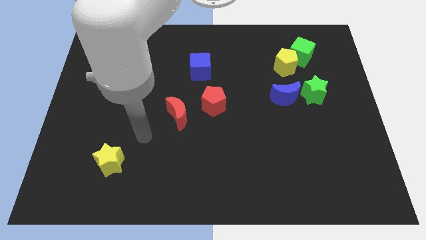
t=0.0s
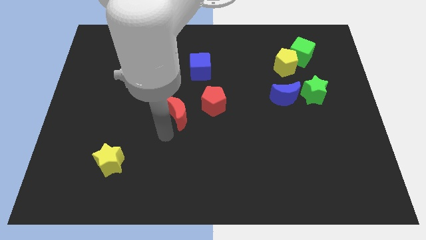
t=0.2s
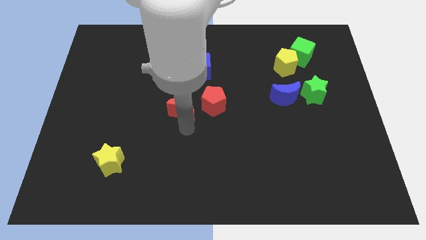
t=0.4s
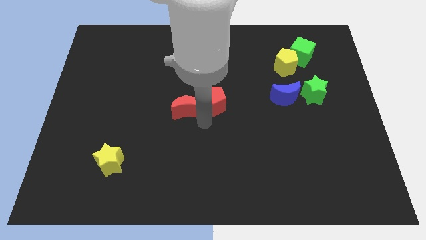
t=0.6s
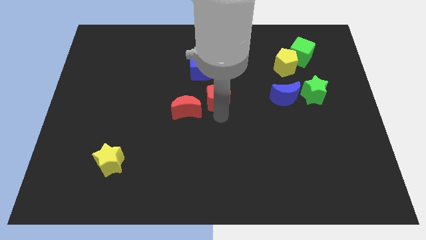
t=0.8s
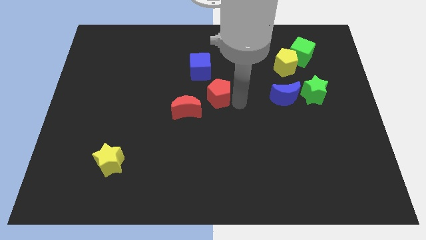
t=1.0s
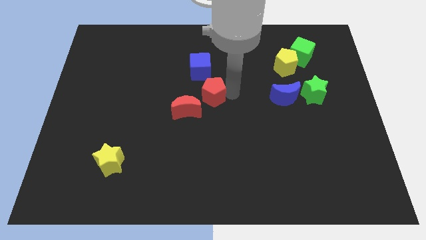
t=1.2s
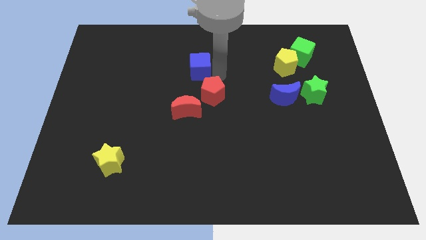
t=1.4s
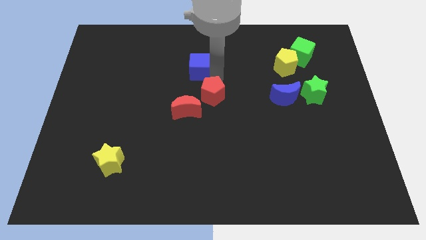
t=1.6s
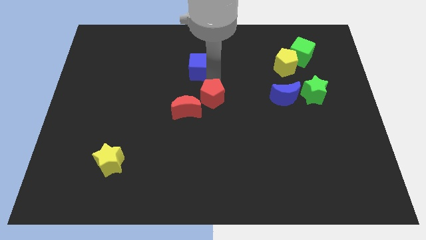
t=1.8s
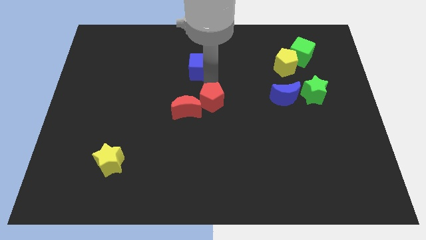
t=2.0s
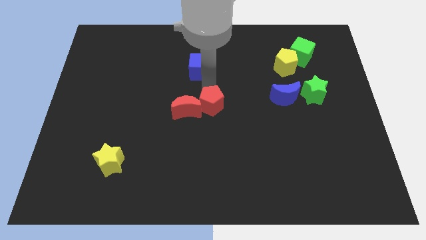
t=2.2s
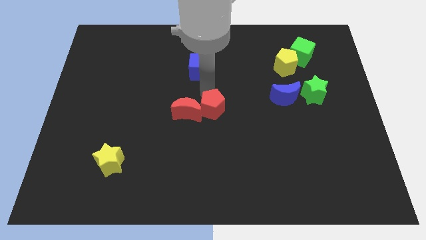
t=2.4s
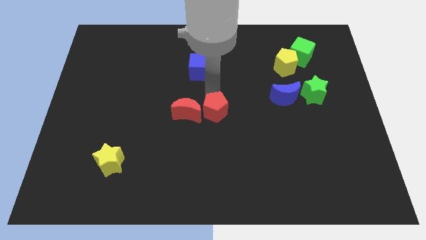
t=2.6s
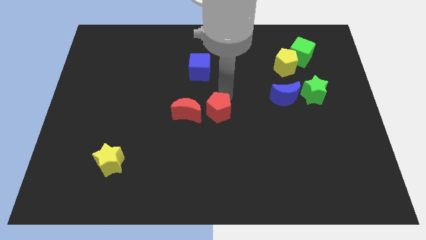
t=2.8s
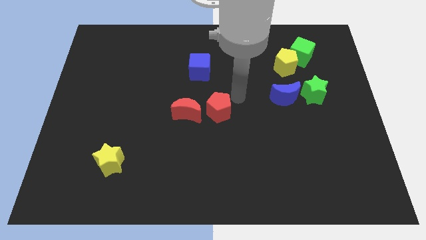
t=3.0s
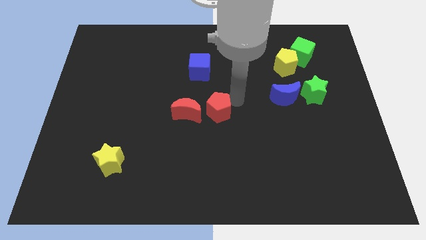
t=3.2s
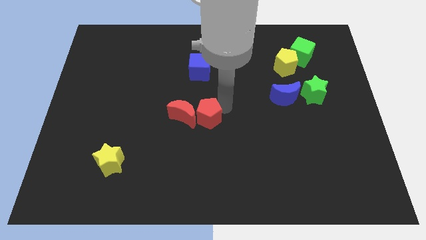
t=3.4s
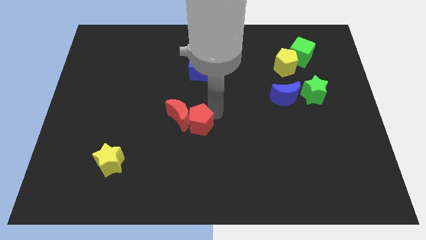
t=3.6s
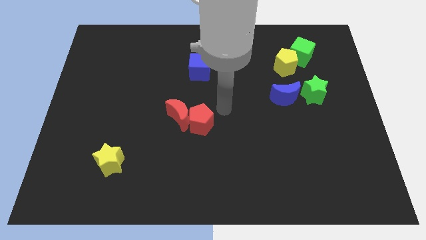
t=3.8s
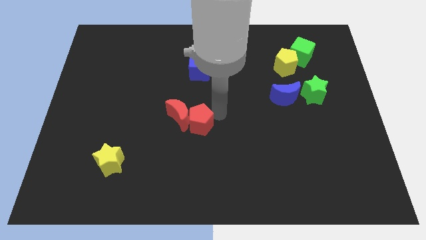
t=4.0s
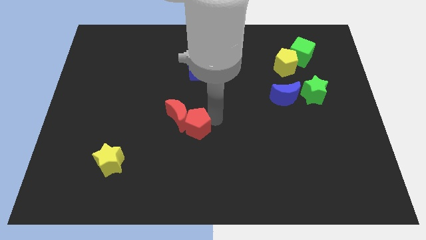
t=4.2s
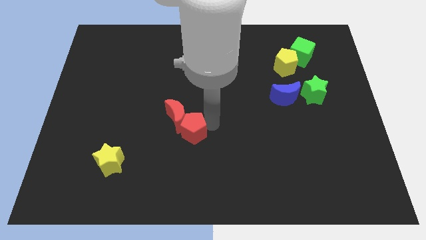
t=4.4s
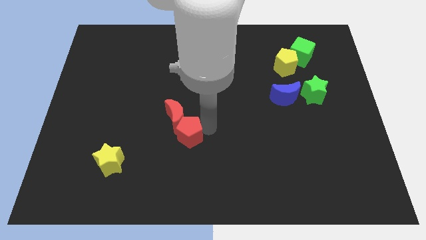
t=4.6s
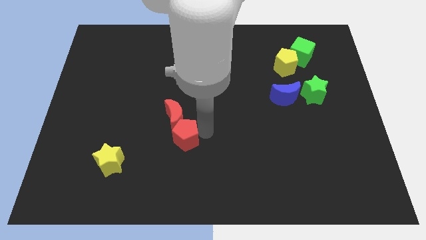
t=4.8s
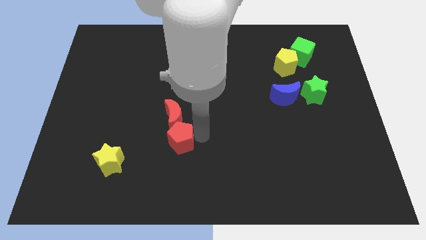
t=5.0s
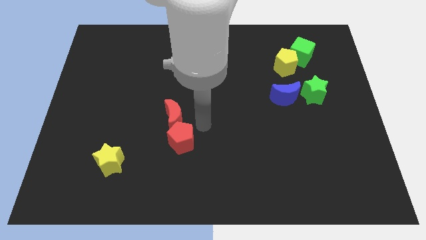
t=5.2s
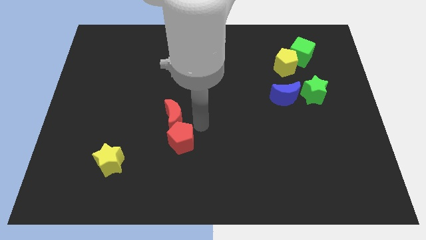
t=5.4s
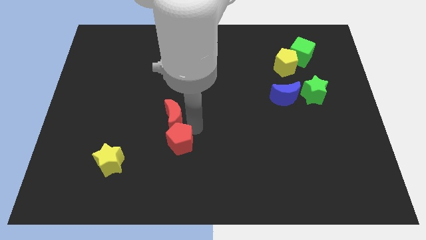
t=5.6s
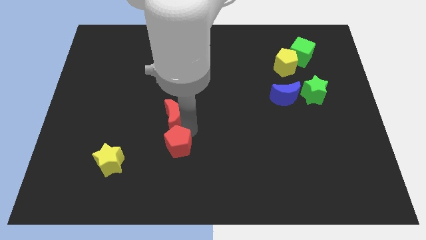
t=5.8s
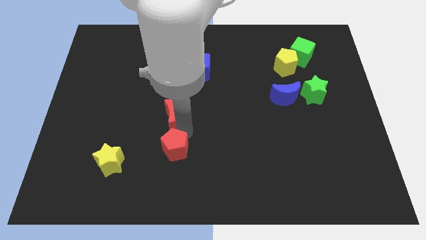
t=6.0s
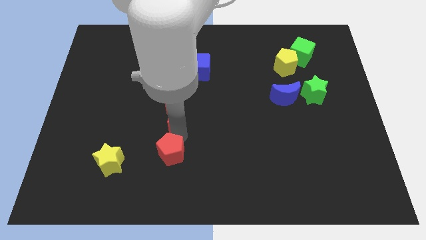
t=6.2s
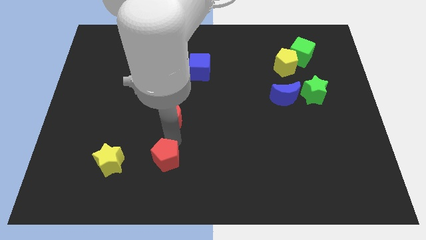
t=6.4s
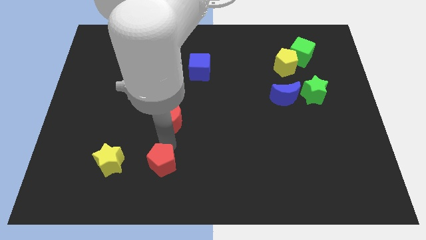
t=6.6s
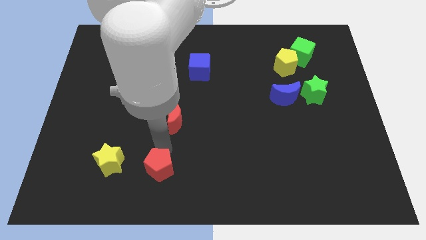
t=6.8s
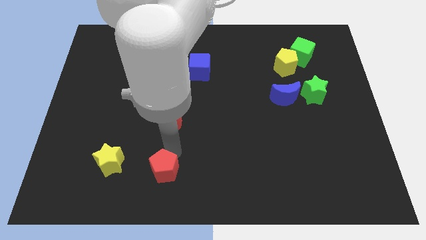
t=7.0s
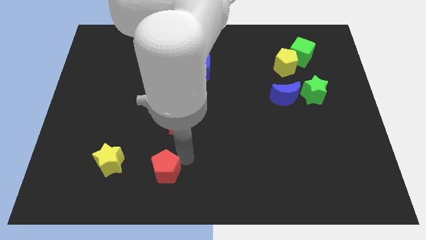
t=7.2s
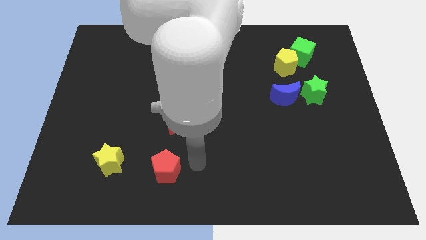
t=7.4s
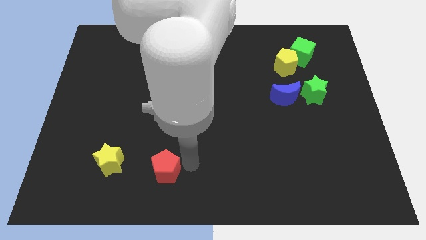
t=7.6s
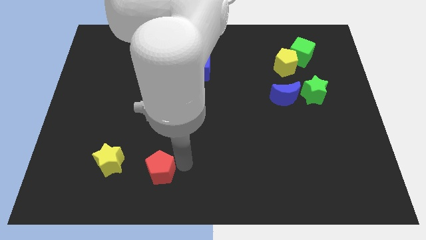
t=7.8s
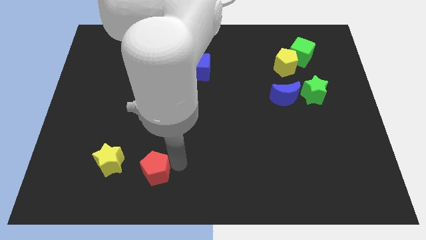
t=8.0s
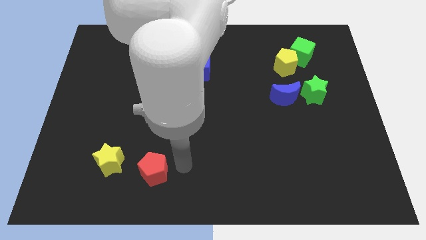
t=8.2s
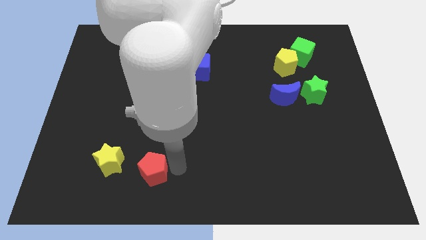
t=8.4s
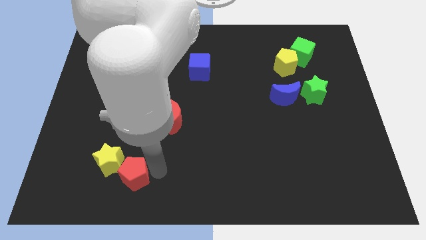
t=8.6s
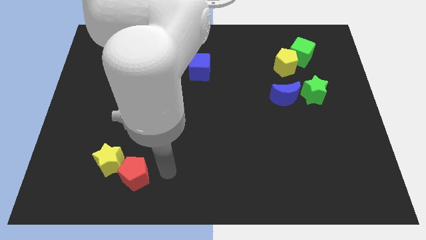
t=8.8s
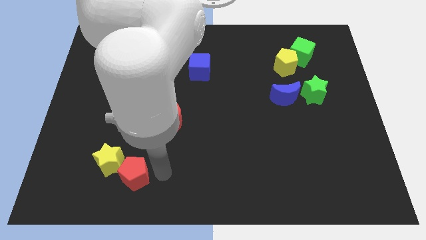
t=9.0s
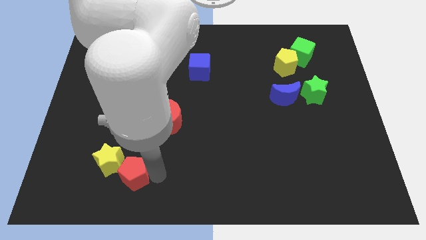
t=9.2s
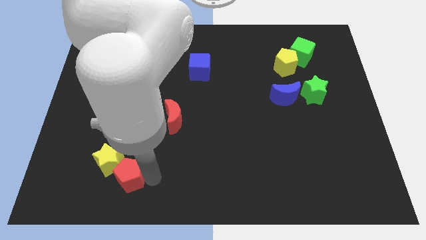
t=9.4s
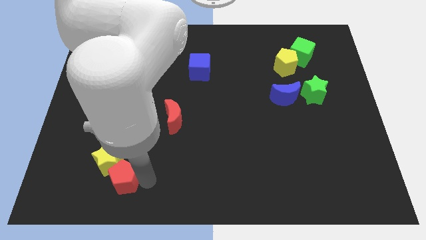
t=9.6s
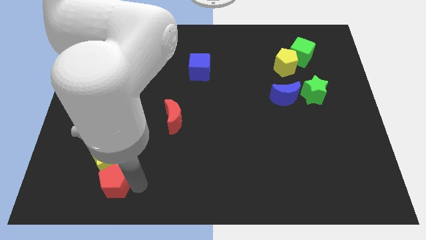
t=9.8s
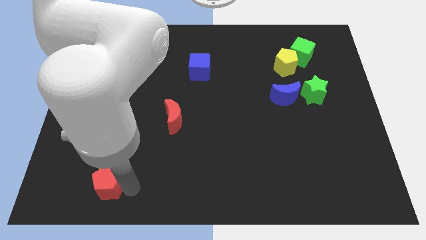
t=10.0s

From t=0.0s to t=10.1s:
put the red pentagon to the bottom left of the yellow star

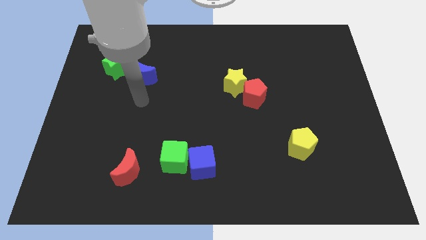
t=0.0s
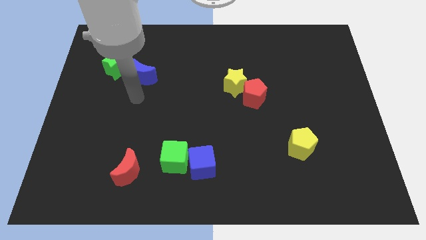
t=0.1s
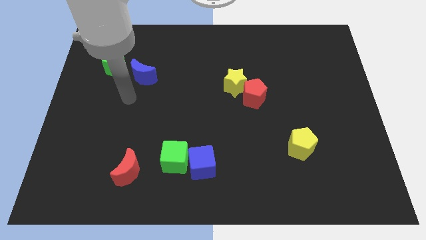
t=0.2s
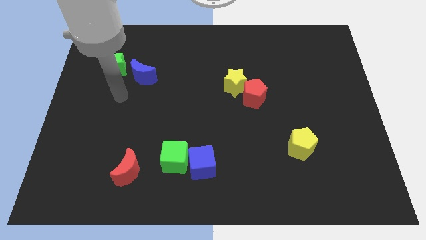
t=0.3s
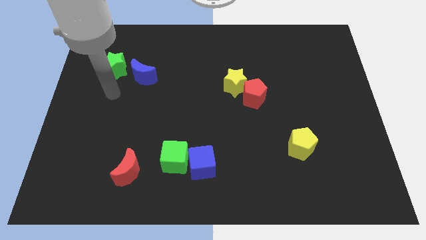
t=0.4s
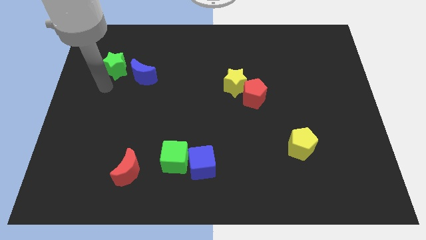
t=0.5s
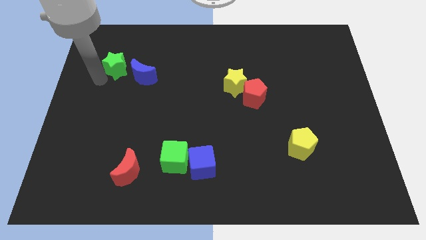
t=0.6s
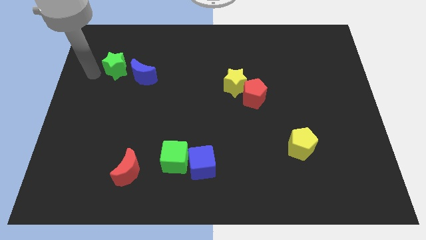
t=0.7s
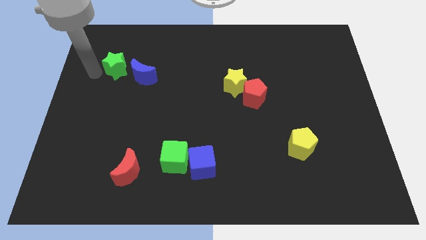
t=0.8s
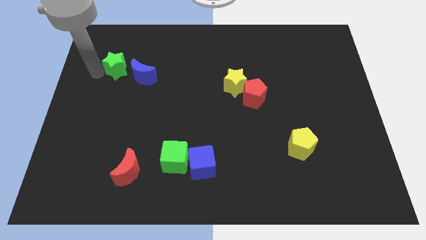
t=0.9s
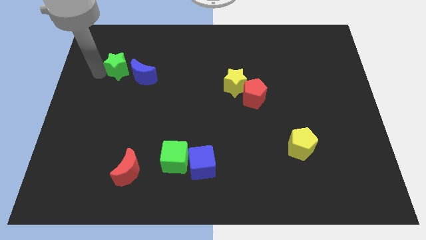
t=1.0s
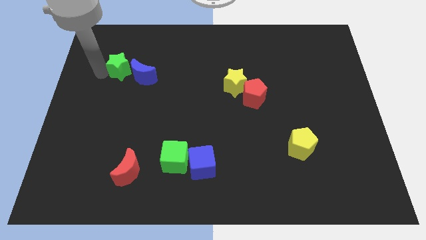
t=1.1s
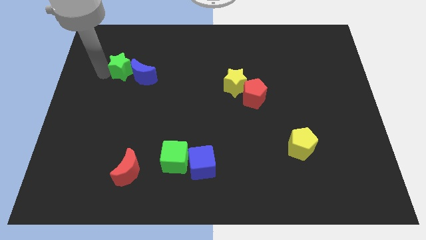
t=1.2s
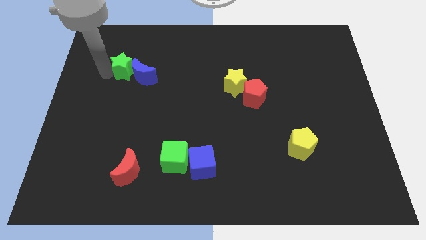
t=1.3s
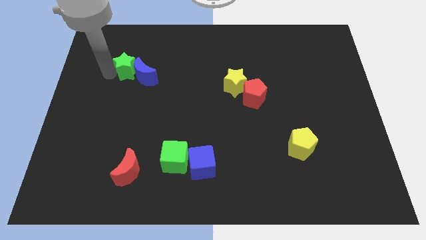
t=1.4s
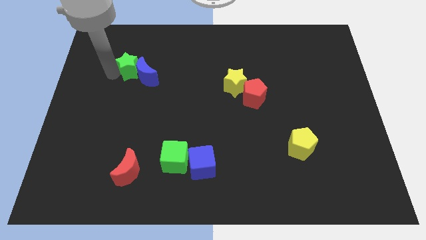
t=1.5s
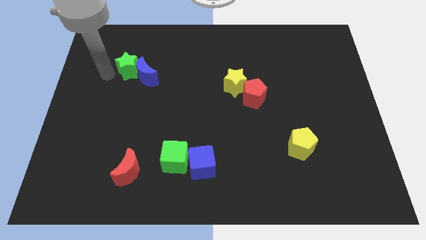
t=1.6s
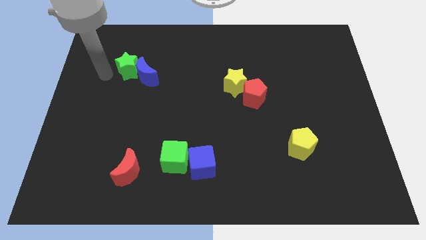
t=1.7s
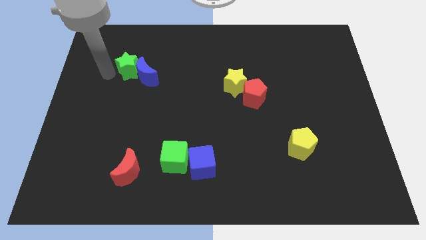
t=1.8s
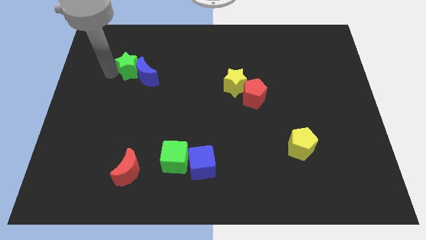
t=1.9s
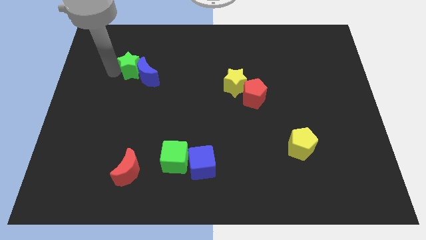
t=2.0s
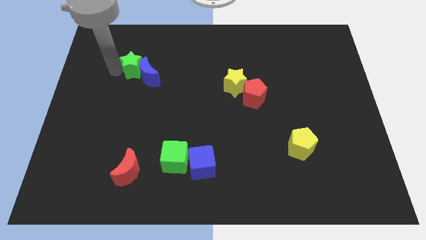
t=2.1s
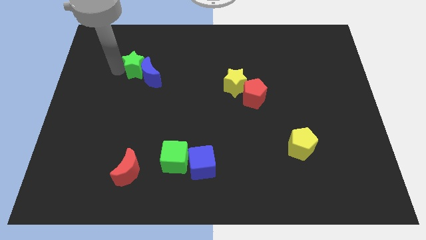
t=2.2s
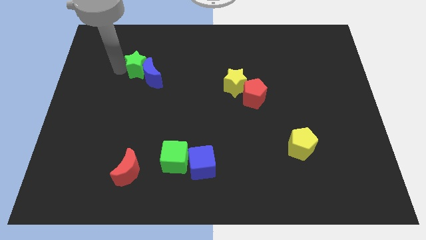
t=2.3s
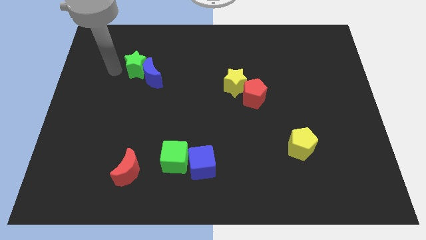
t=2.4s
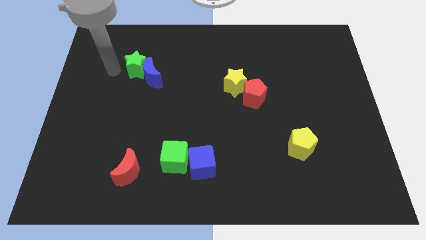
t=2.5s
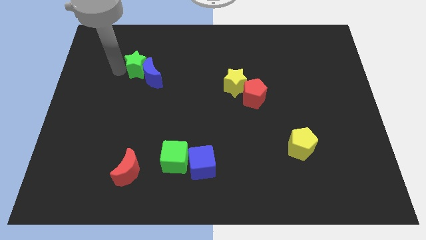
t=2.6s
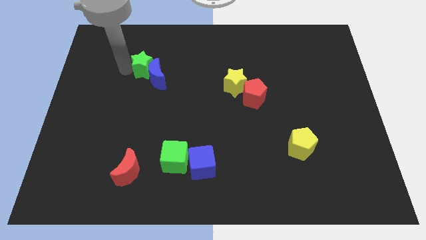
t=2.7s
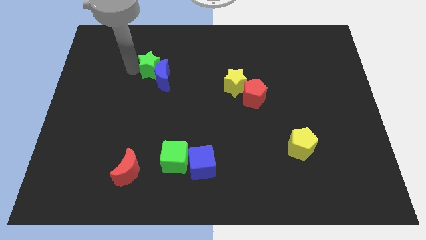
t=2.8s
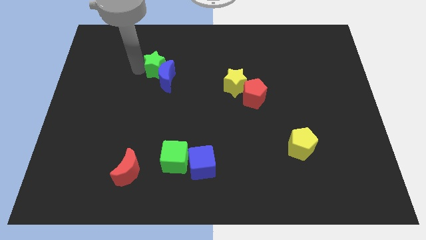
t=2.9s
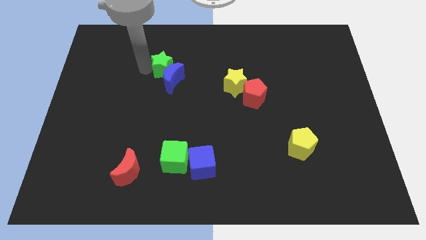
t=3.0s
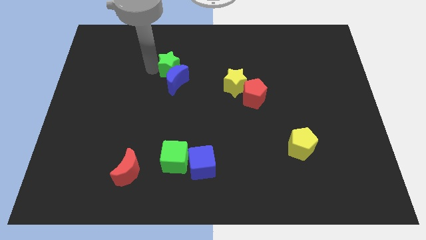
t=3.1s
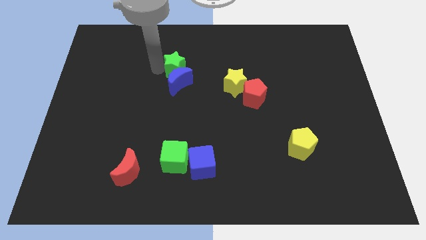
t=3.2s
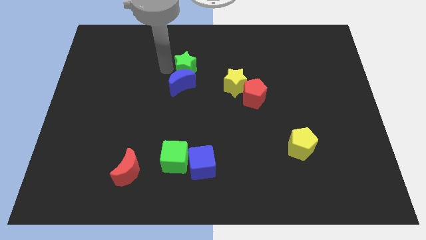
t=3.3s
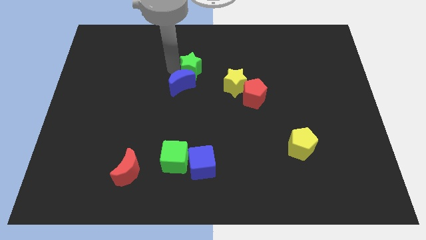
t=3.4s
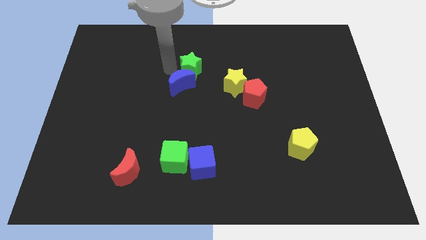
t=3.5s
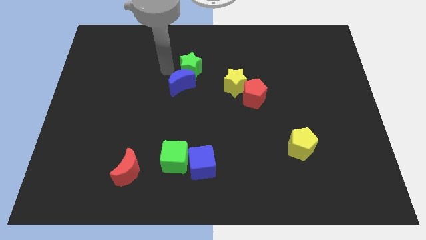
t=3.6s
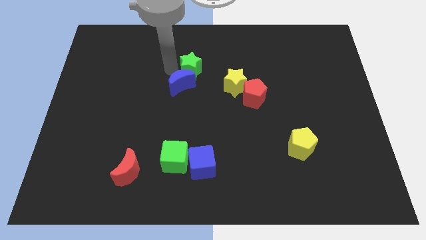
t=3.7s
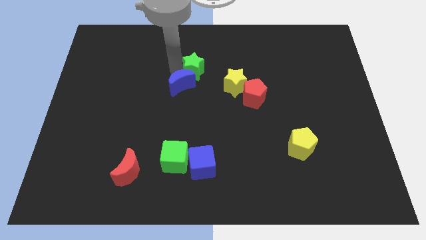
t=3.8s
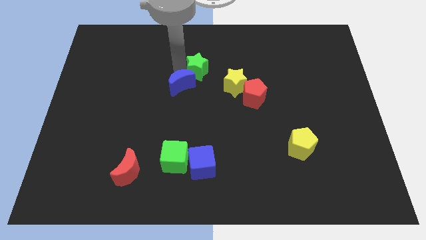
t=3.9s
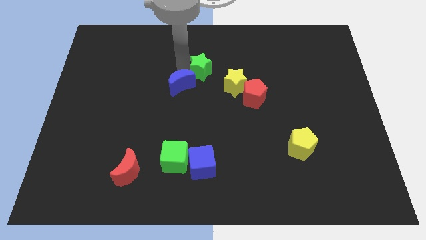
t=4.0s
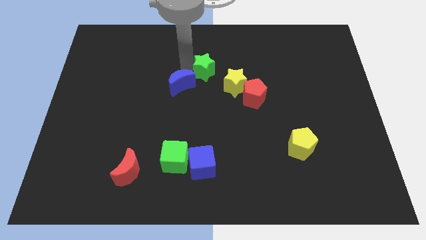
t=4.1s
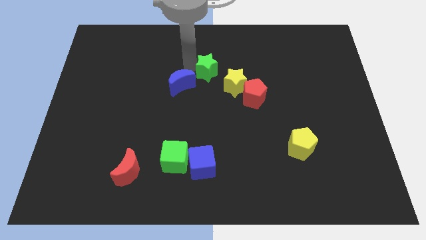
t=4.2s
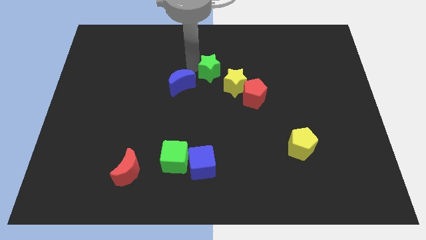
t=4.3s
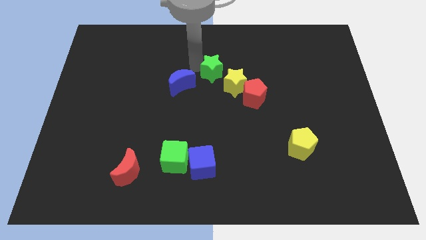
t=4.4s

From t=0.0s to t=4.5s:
put the green star to the top left side of the red pentagon
